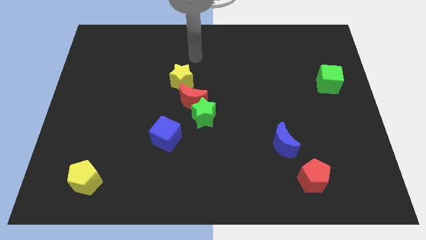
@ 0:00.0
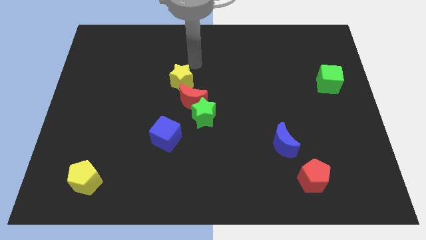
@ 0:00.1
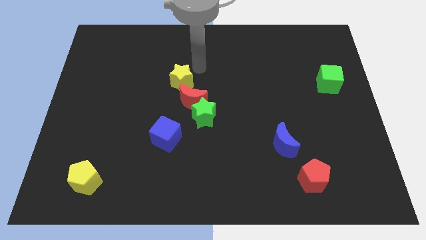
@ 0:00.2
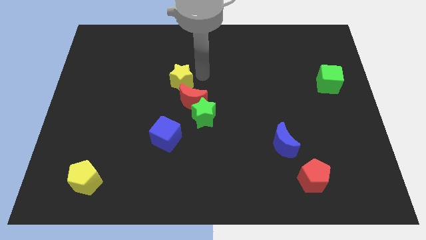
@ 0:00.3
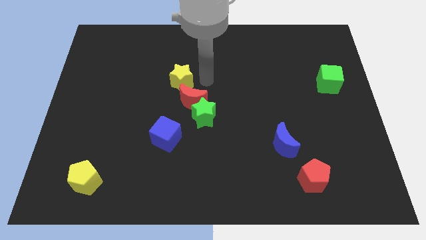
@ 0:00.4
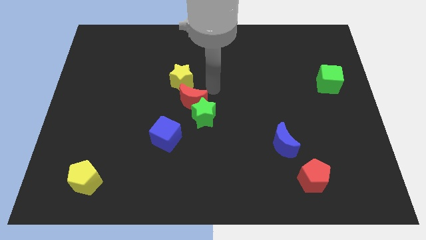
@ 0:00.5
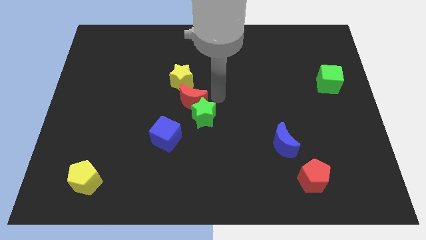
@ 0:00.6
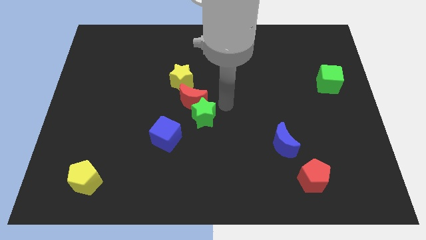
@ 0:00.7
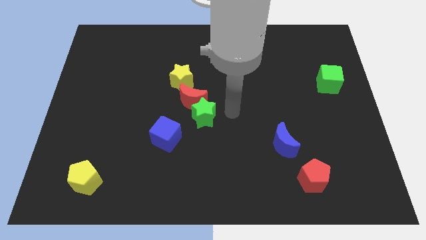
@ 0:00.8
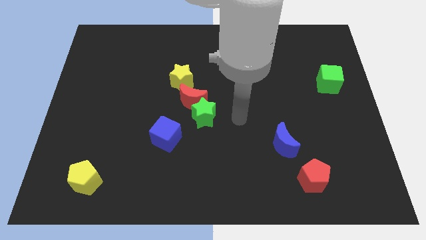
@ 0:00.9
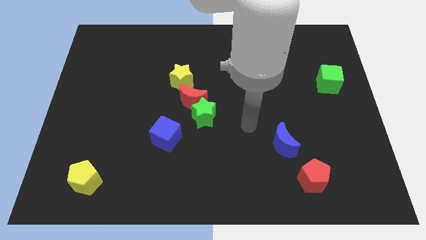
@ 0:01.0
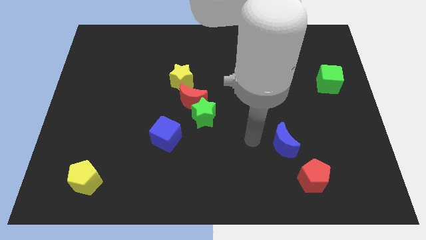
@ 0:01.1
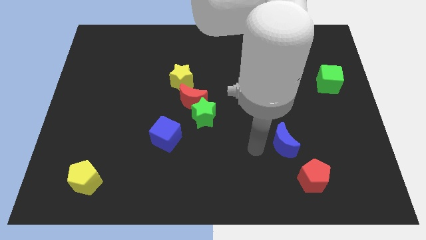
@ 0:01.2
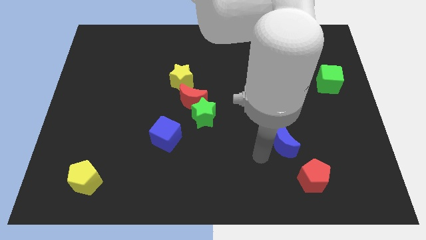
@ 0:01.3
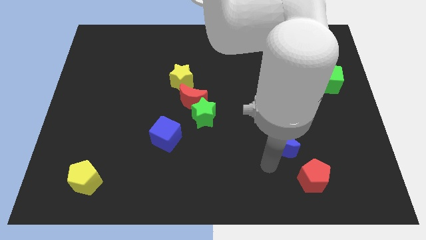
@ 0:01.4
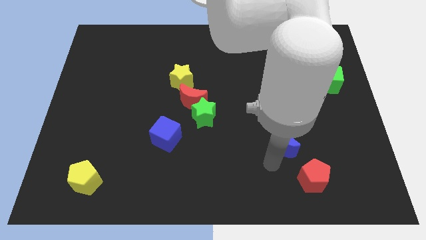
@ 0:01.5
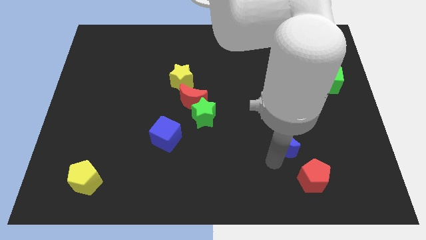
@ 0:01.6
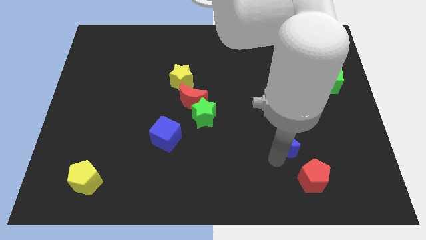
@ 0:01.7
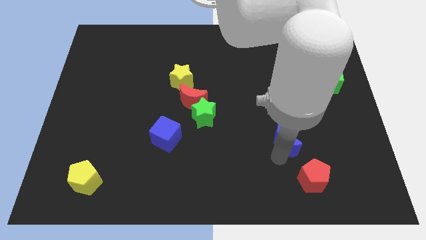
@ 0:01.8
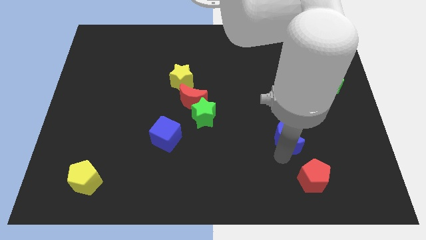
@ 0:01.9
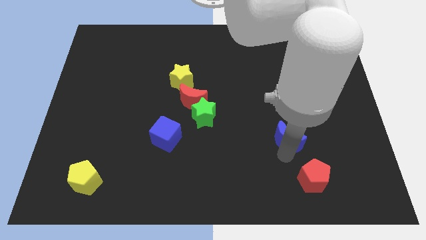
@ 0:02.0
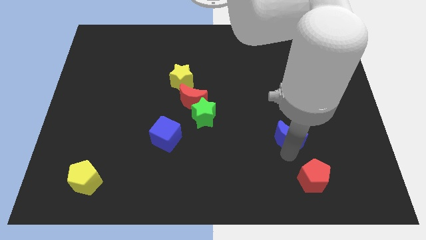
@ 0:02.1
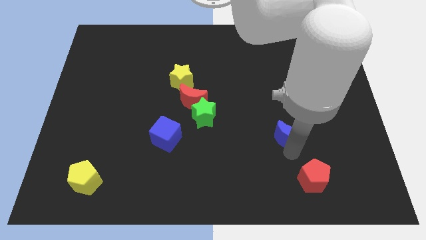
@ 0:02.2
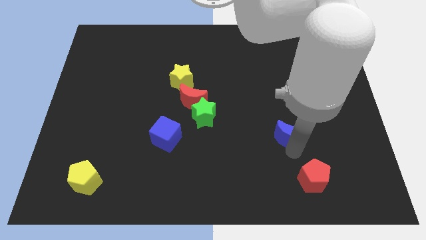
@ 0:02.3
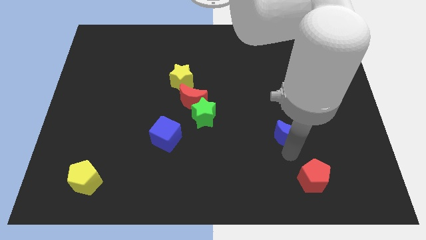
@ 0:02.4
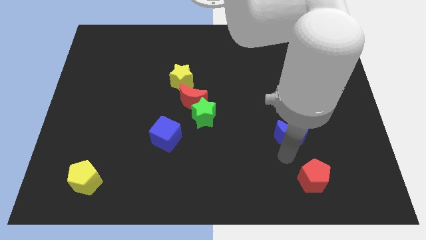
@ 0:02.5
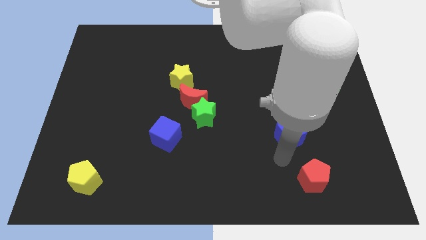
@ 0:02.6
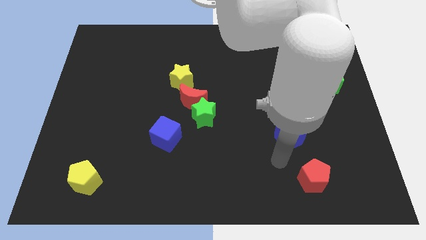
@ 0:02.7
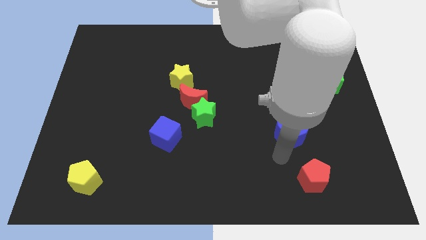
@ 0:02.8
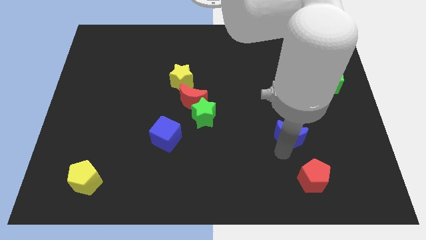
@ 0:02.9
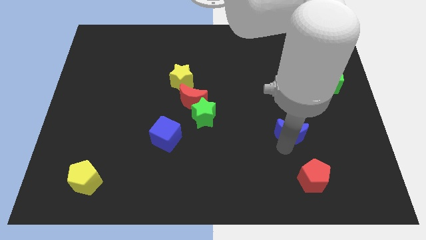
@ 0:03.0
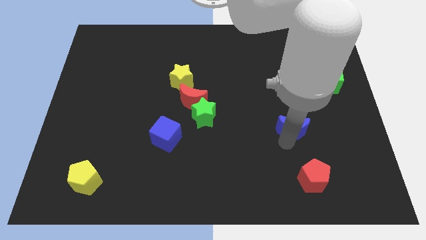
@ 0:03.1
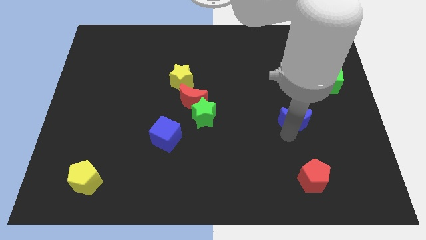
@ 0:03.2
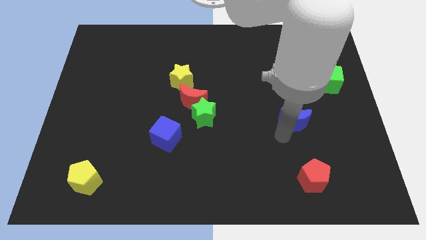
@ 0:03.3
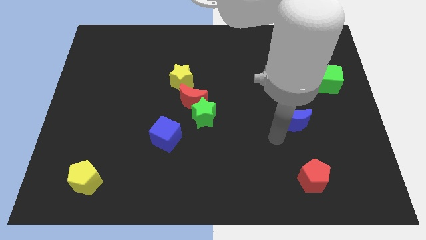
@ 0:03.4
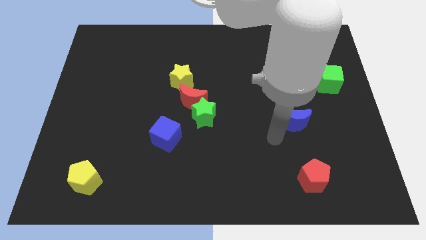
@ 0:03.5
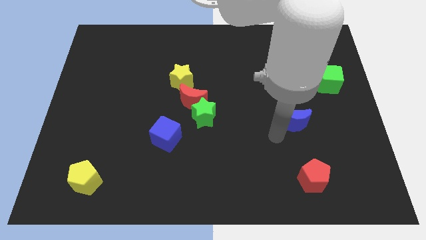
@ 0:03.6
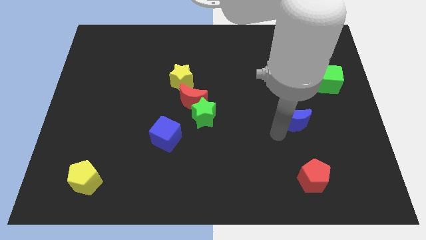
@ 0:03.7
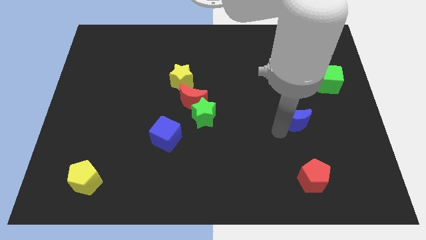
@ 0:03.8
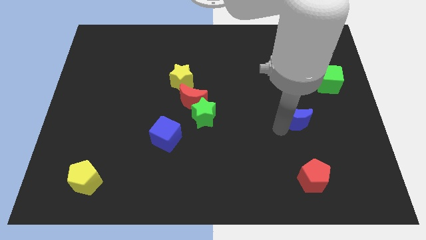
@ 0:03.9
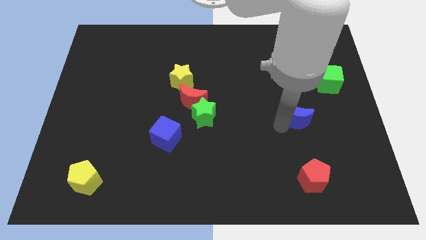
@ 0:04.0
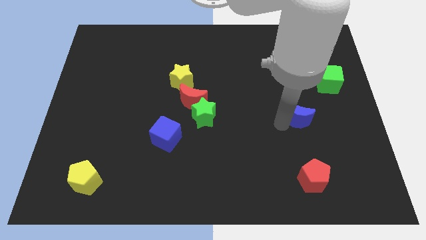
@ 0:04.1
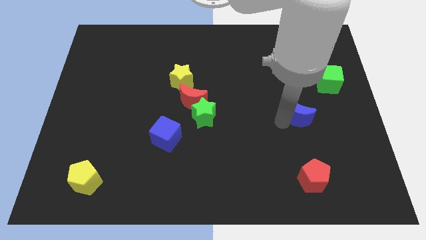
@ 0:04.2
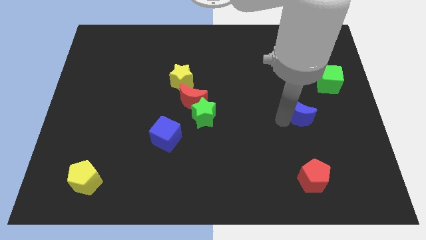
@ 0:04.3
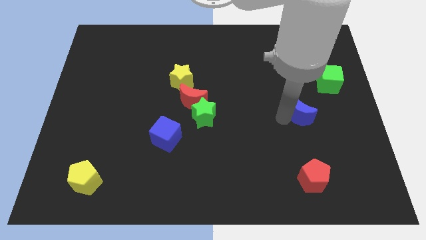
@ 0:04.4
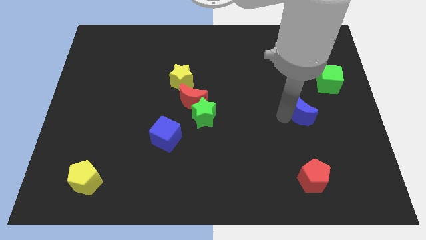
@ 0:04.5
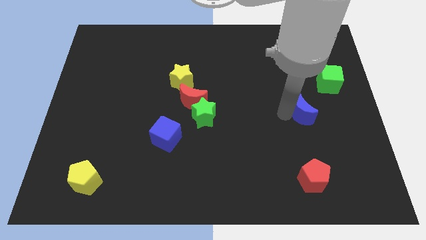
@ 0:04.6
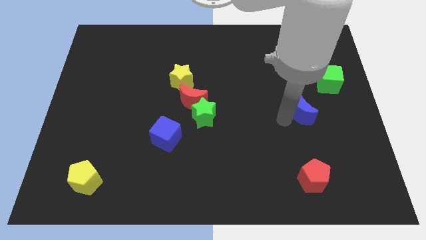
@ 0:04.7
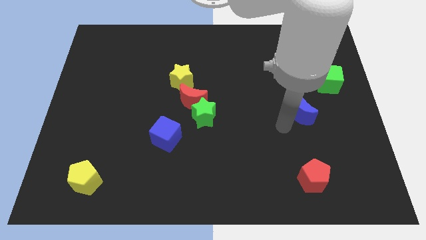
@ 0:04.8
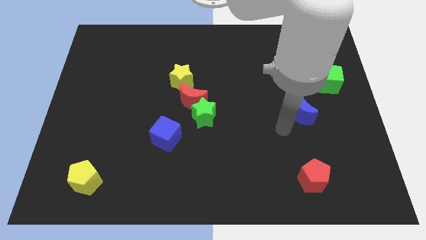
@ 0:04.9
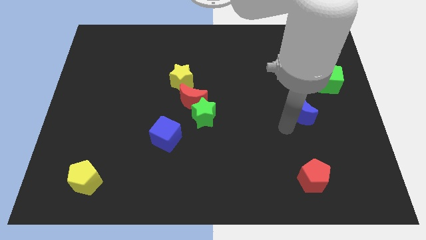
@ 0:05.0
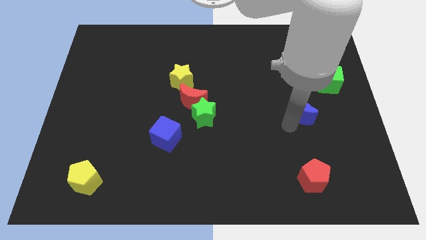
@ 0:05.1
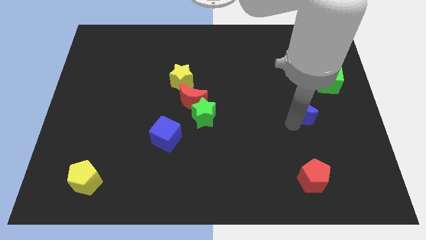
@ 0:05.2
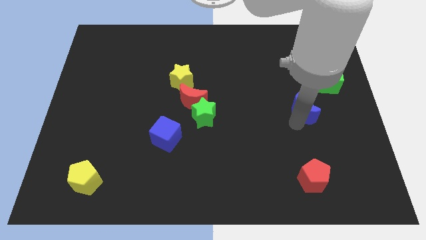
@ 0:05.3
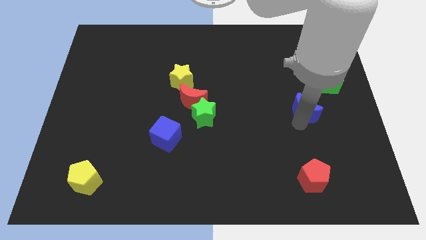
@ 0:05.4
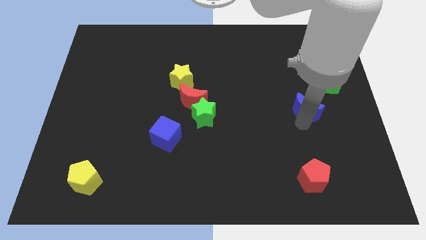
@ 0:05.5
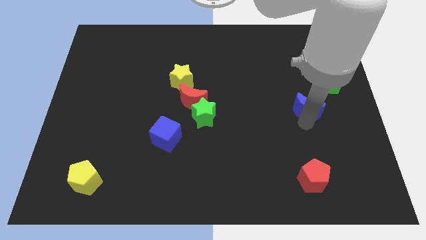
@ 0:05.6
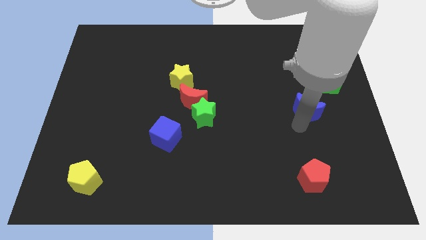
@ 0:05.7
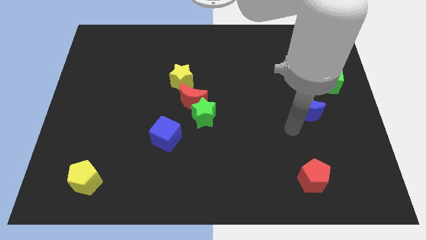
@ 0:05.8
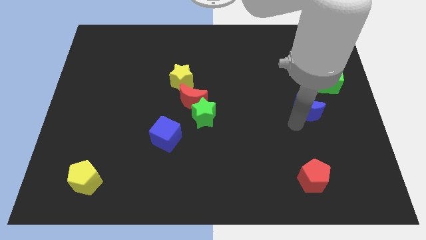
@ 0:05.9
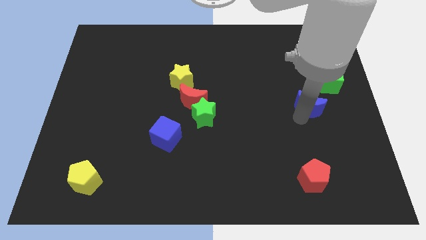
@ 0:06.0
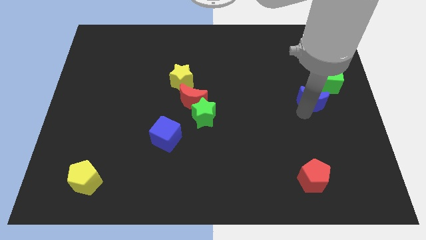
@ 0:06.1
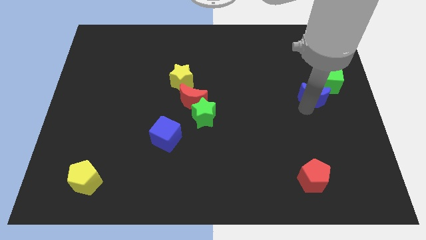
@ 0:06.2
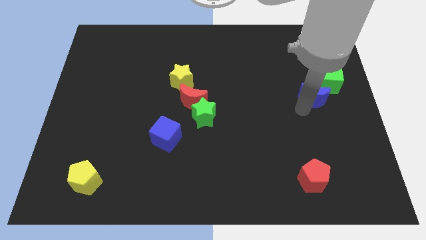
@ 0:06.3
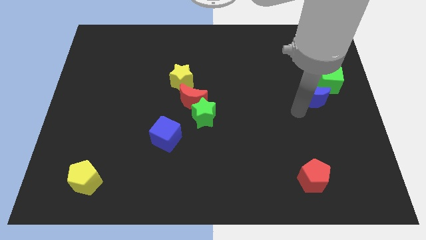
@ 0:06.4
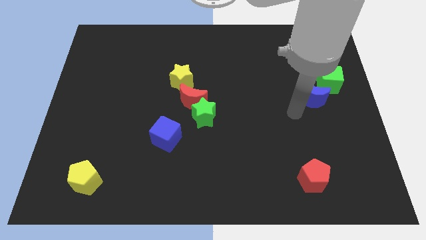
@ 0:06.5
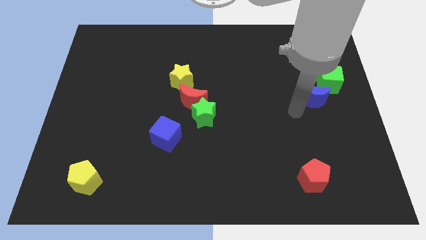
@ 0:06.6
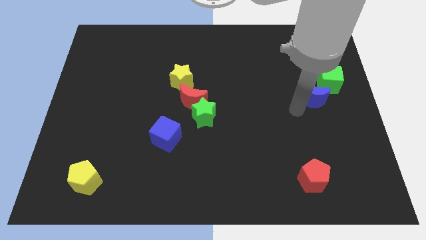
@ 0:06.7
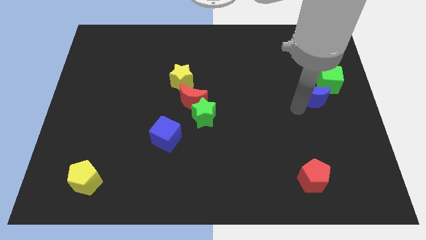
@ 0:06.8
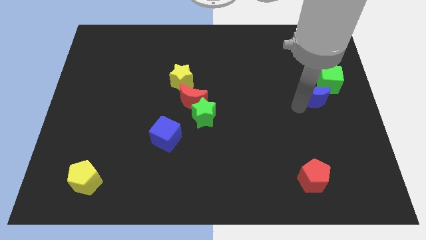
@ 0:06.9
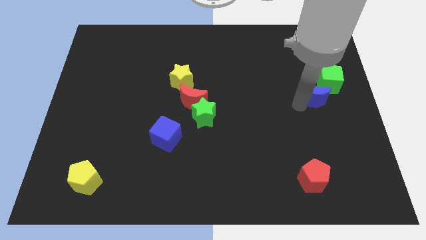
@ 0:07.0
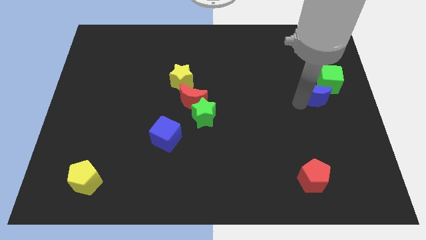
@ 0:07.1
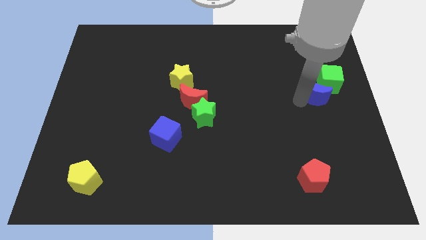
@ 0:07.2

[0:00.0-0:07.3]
put the blue moon to the green cube
